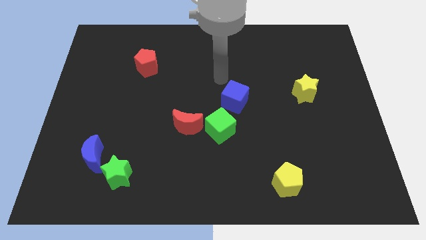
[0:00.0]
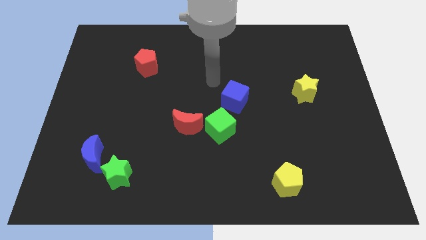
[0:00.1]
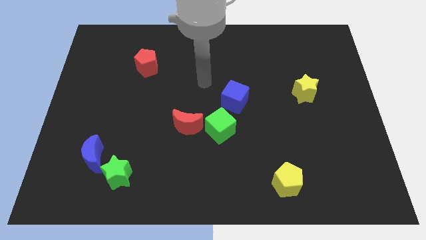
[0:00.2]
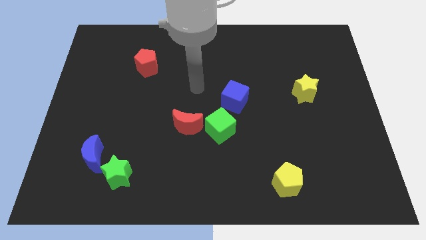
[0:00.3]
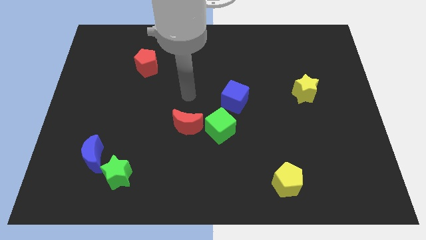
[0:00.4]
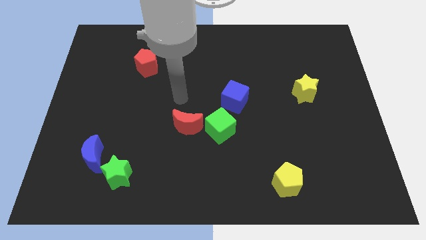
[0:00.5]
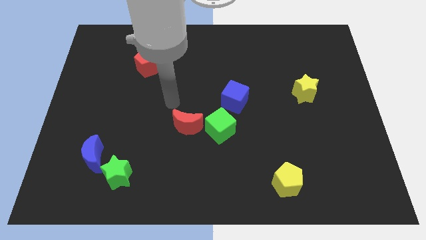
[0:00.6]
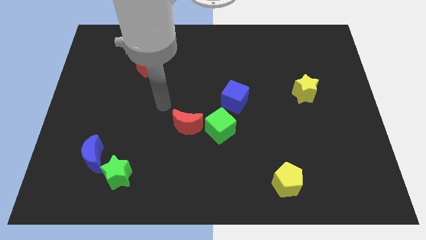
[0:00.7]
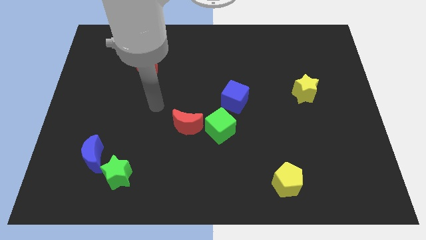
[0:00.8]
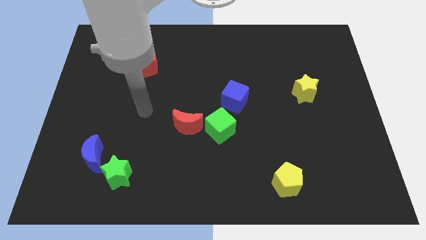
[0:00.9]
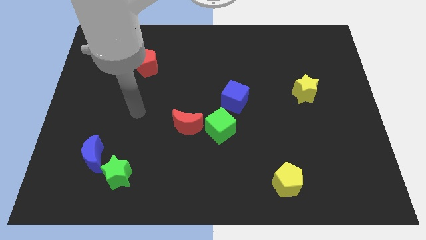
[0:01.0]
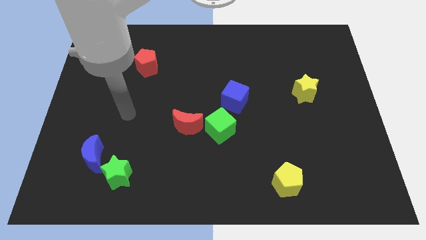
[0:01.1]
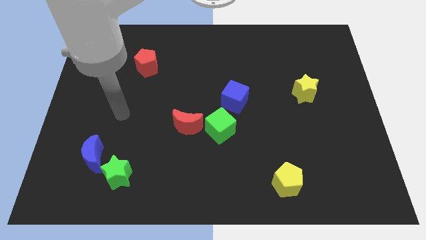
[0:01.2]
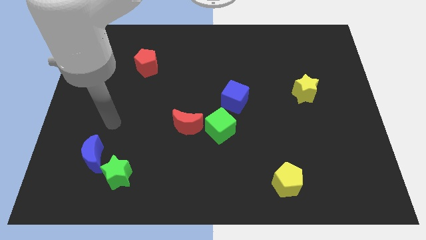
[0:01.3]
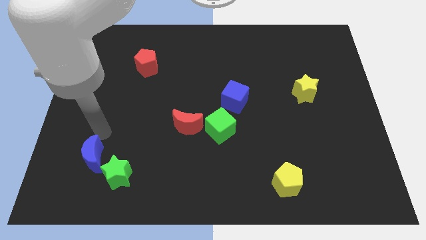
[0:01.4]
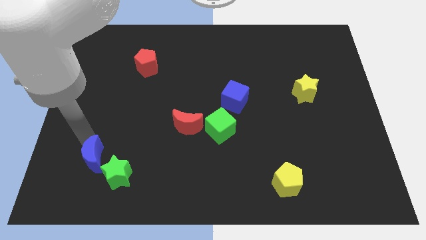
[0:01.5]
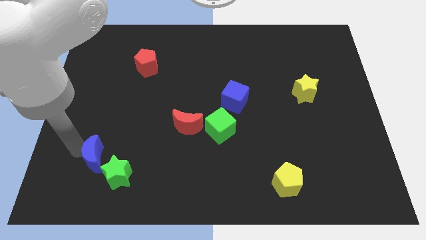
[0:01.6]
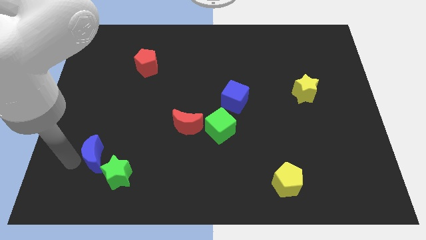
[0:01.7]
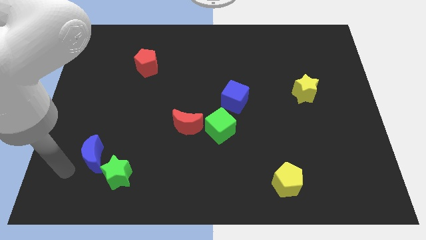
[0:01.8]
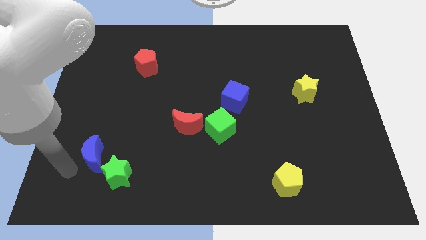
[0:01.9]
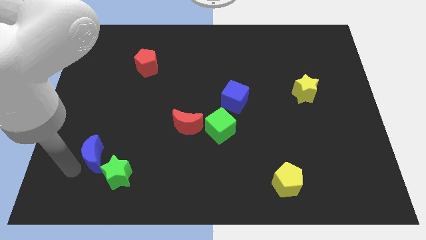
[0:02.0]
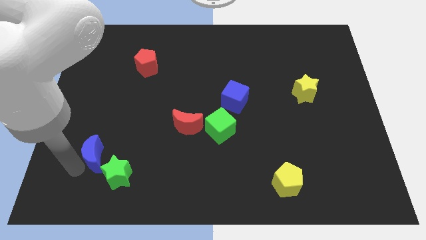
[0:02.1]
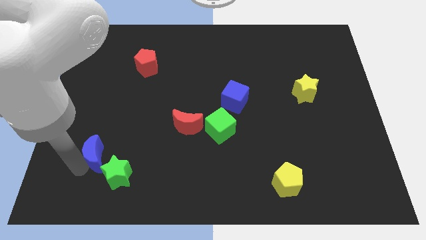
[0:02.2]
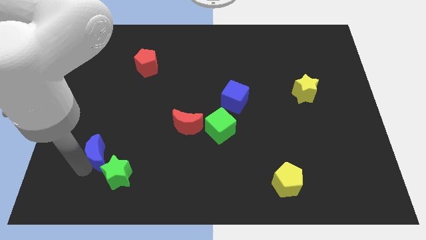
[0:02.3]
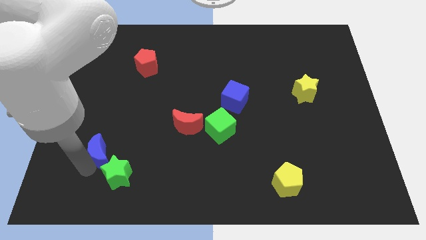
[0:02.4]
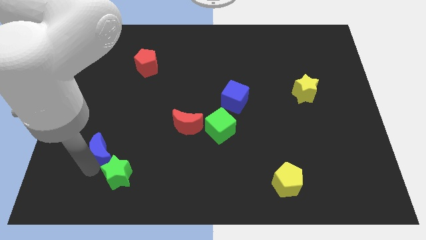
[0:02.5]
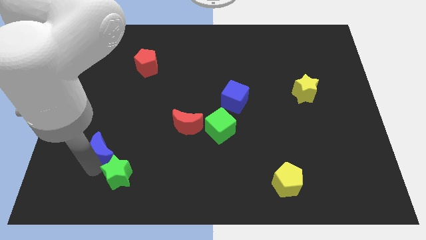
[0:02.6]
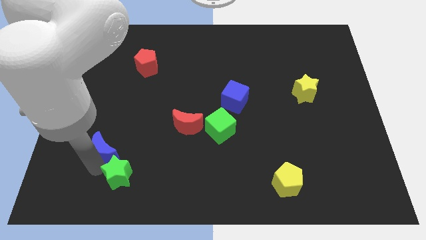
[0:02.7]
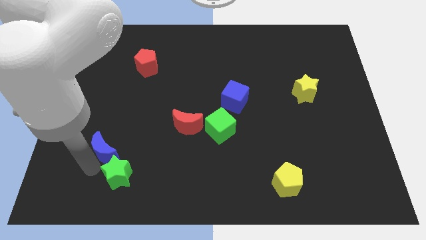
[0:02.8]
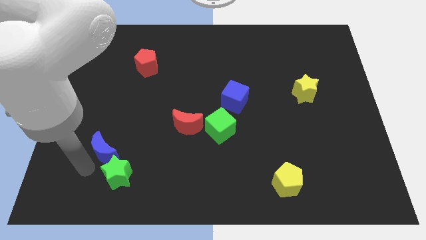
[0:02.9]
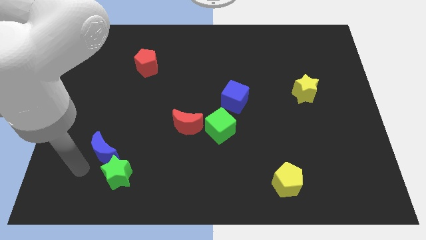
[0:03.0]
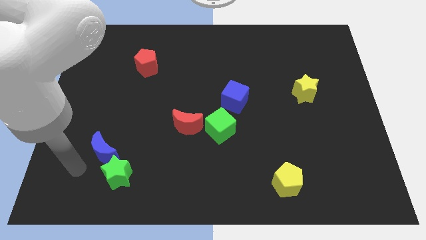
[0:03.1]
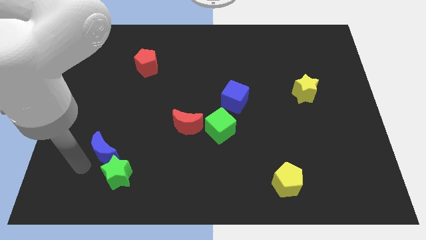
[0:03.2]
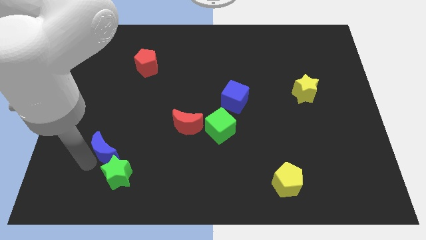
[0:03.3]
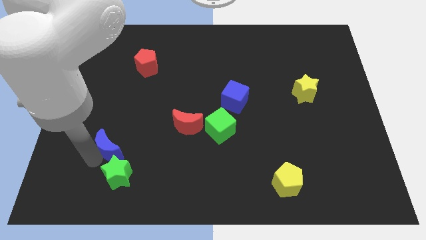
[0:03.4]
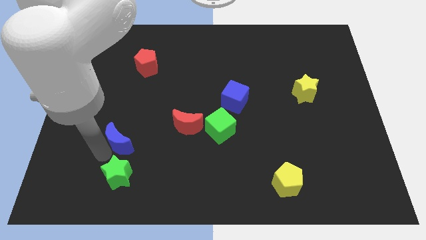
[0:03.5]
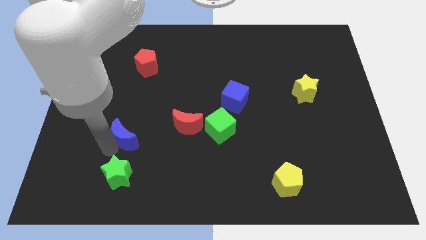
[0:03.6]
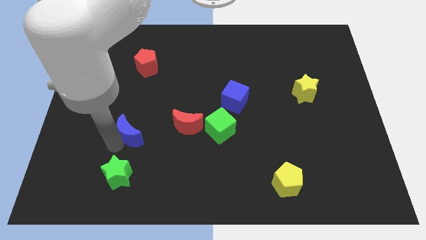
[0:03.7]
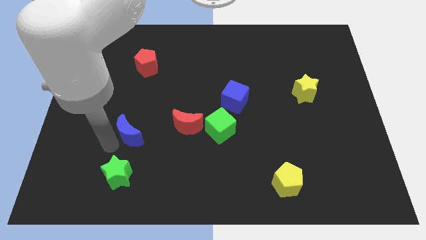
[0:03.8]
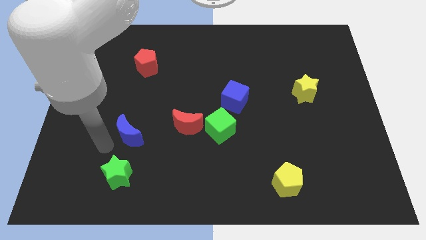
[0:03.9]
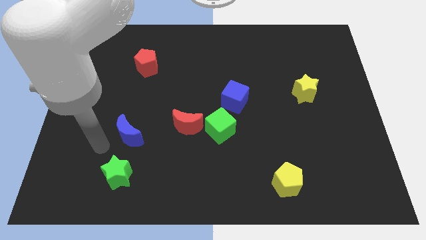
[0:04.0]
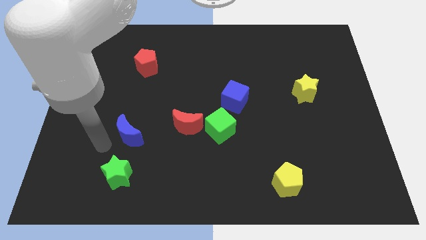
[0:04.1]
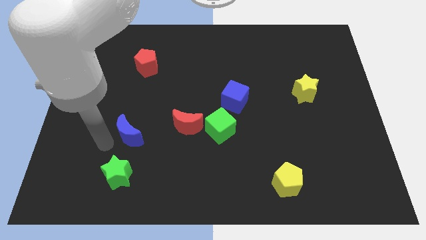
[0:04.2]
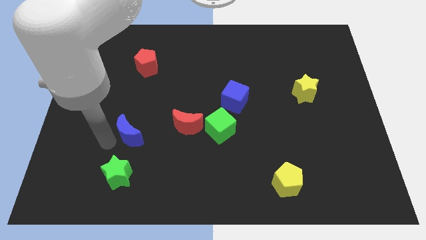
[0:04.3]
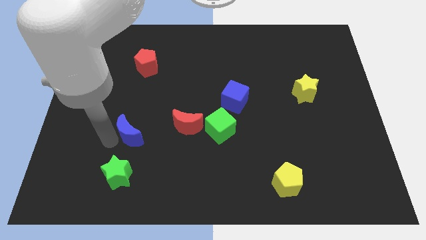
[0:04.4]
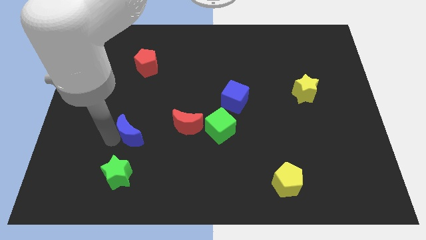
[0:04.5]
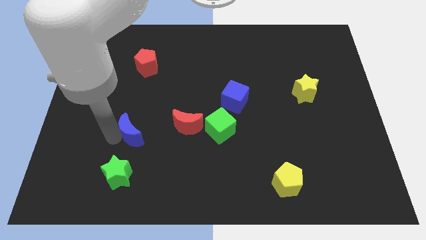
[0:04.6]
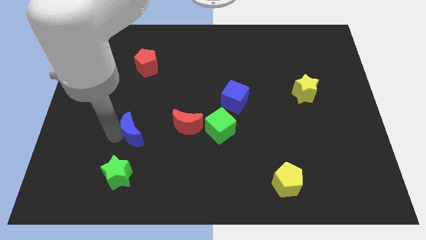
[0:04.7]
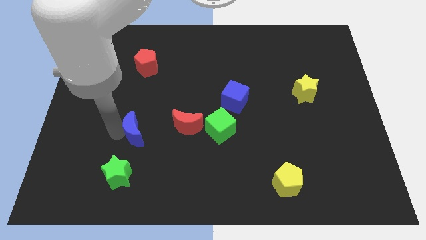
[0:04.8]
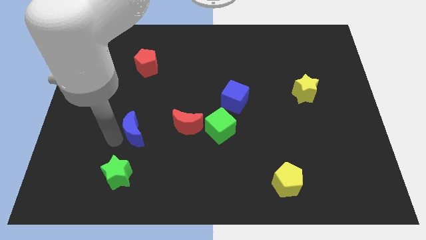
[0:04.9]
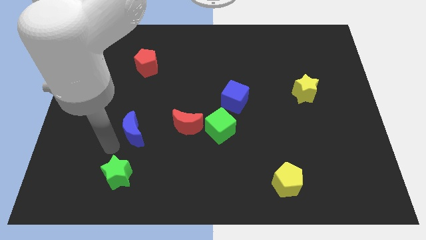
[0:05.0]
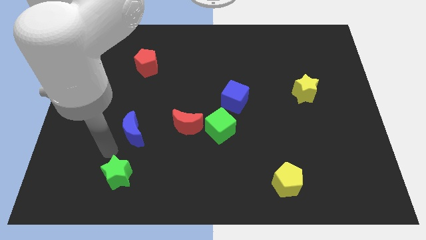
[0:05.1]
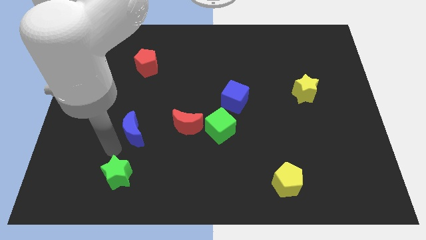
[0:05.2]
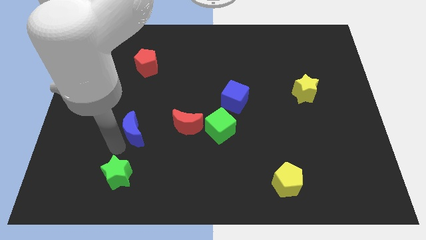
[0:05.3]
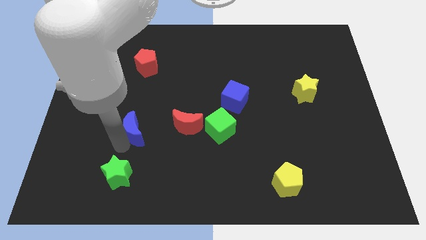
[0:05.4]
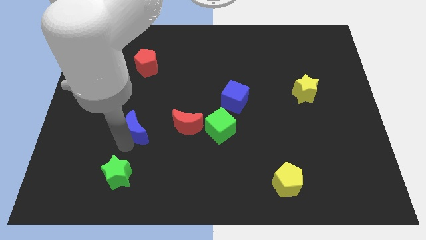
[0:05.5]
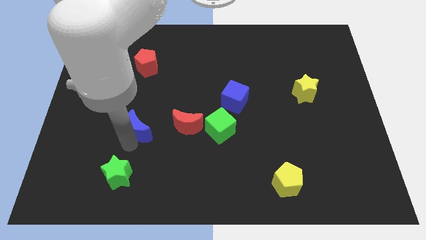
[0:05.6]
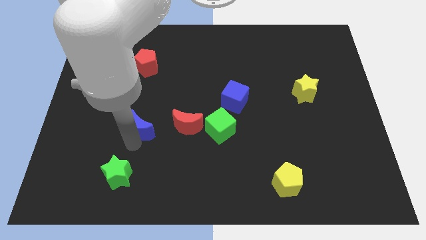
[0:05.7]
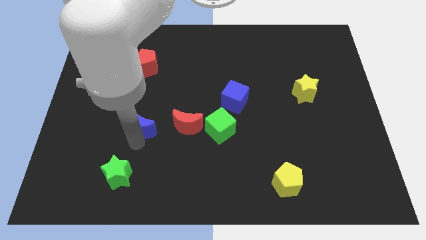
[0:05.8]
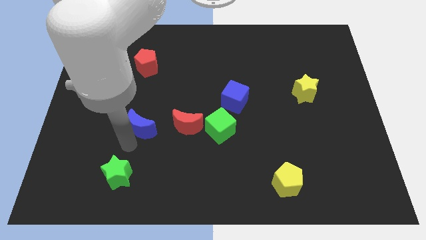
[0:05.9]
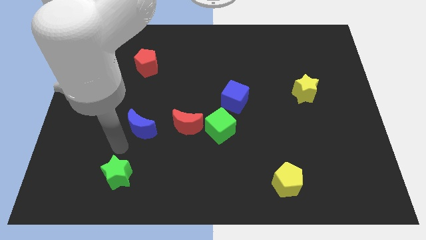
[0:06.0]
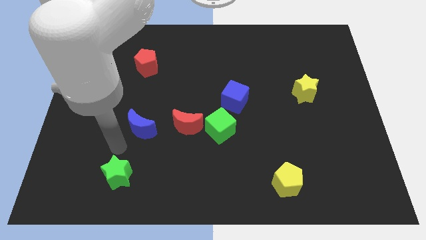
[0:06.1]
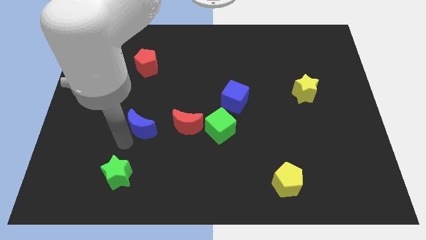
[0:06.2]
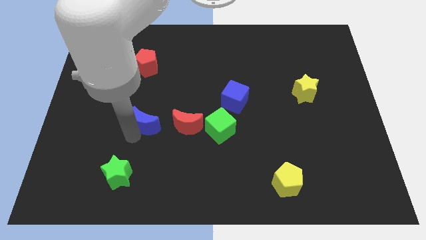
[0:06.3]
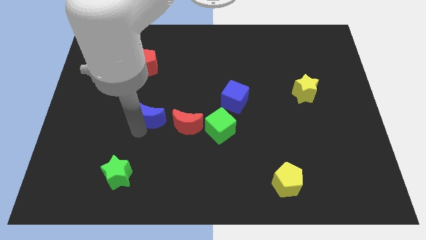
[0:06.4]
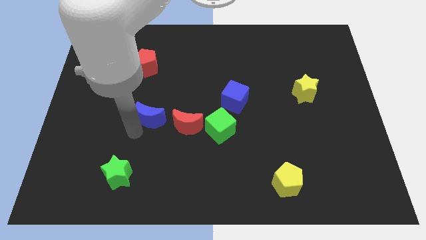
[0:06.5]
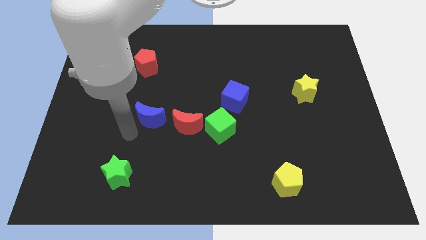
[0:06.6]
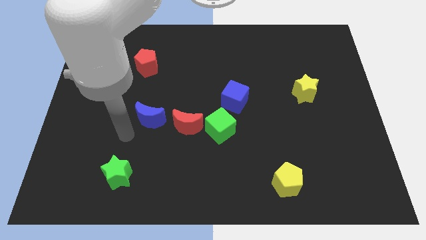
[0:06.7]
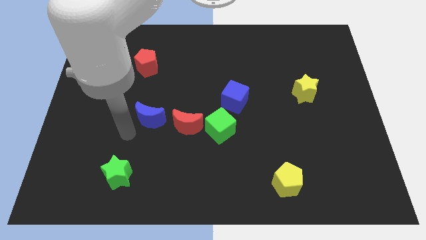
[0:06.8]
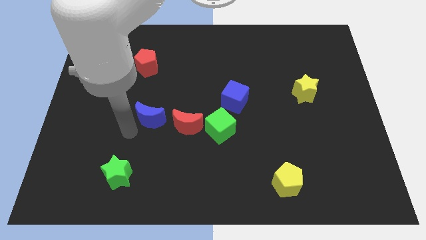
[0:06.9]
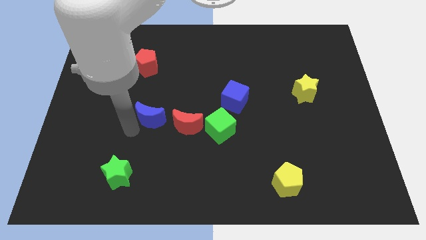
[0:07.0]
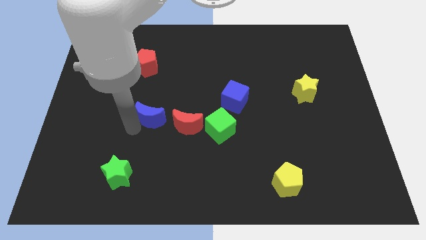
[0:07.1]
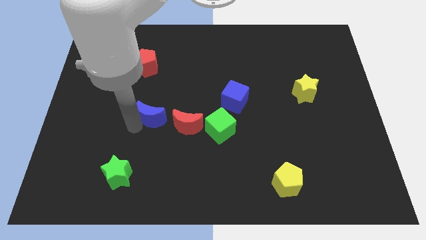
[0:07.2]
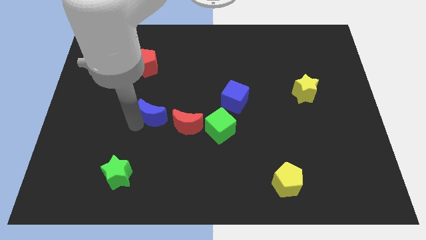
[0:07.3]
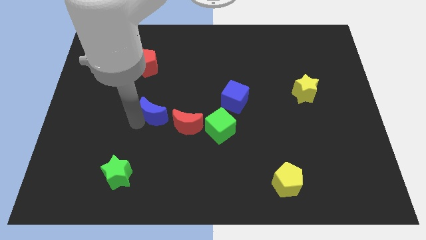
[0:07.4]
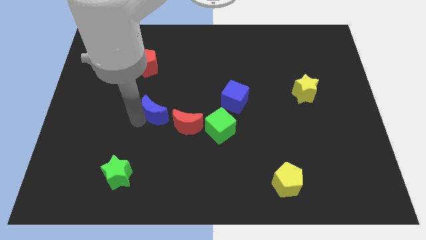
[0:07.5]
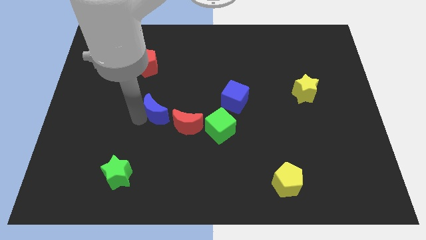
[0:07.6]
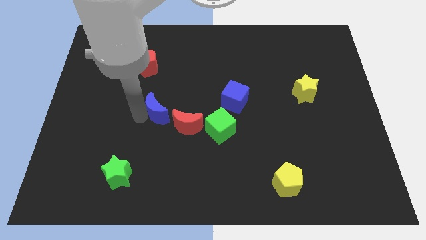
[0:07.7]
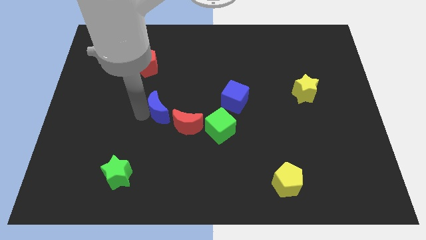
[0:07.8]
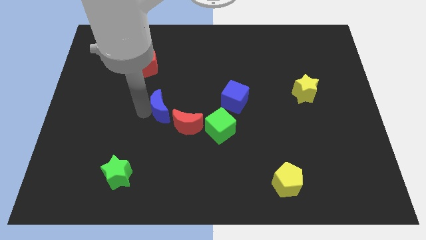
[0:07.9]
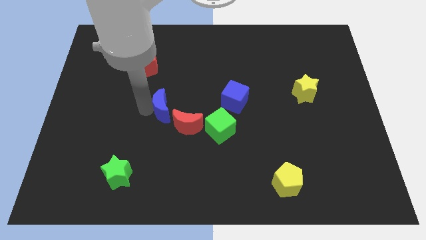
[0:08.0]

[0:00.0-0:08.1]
push the blue moon to the middle
